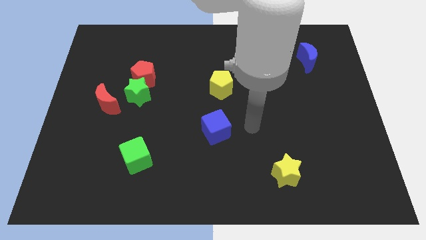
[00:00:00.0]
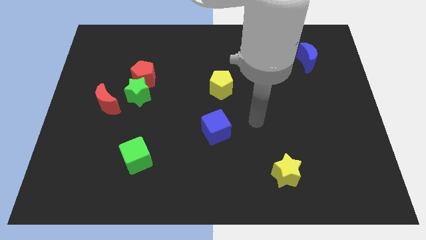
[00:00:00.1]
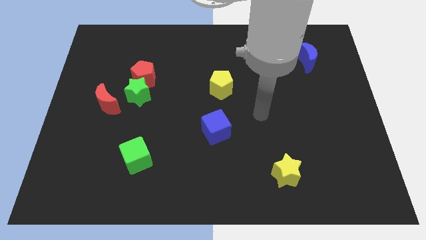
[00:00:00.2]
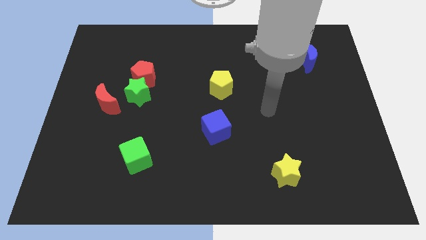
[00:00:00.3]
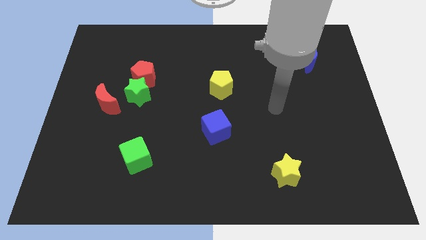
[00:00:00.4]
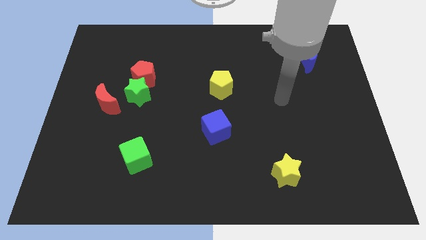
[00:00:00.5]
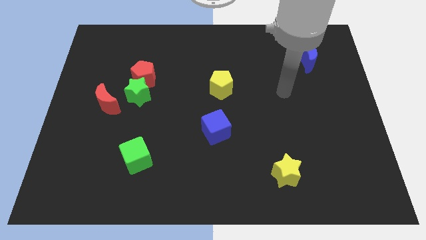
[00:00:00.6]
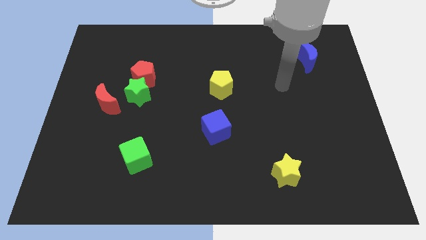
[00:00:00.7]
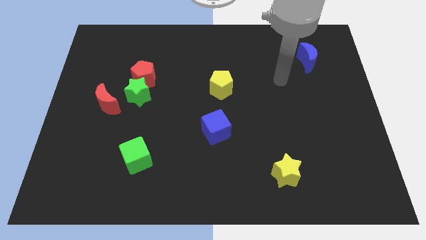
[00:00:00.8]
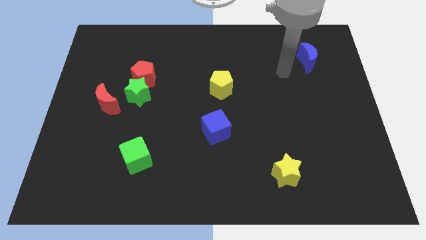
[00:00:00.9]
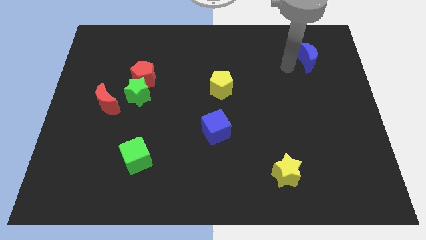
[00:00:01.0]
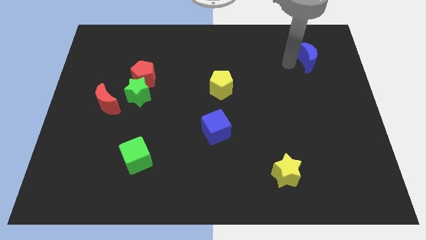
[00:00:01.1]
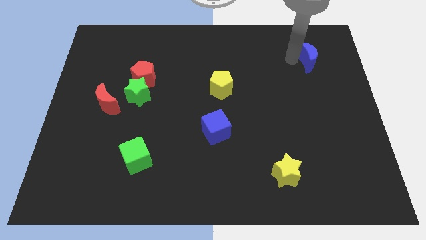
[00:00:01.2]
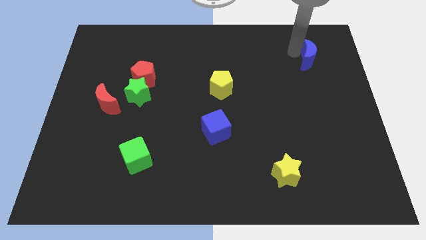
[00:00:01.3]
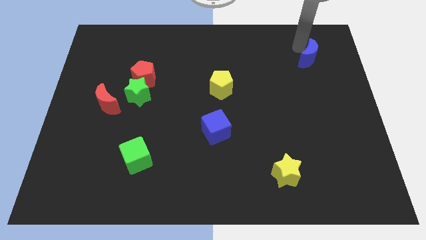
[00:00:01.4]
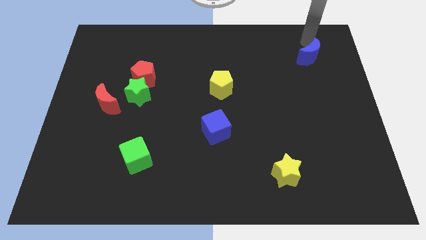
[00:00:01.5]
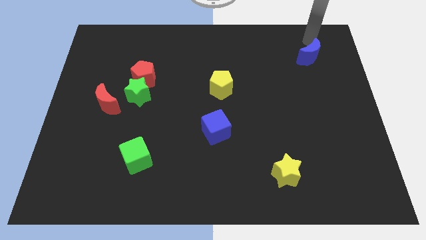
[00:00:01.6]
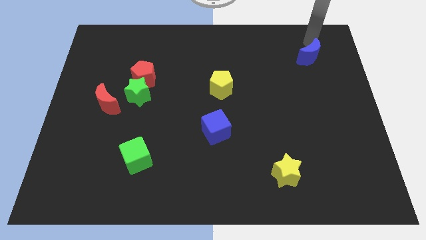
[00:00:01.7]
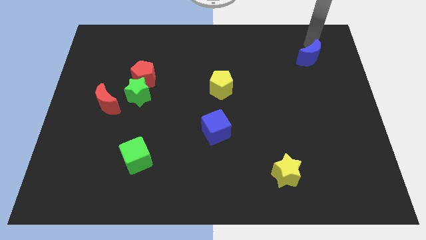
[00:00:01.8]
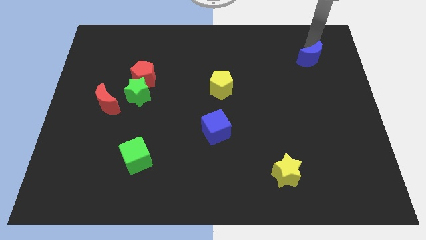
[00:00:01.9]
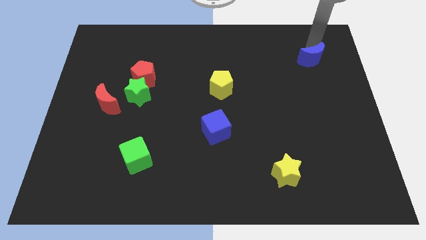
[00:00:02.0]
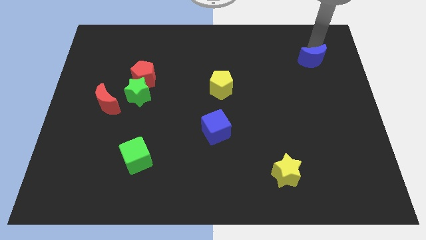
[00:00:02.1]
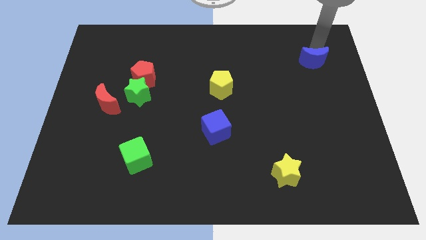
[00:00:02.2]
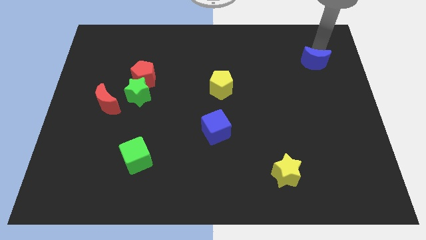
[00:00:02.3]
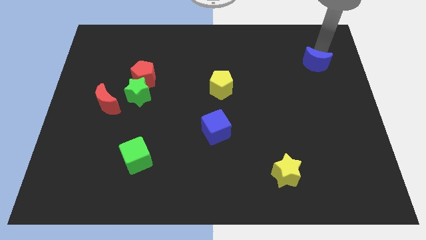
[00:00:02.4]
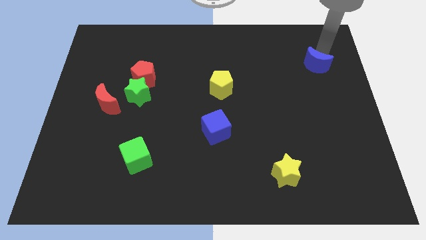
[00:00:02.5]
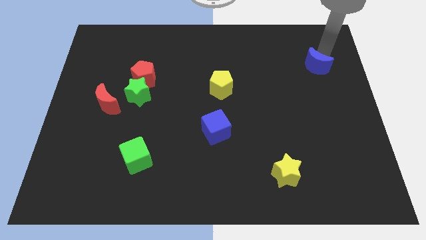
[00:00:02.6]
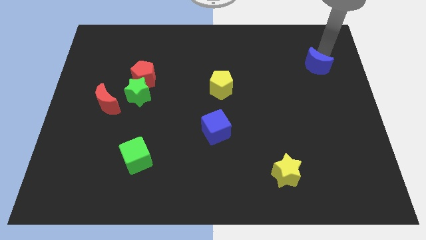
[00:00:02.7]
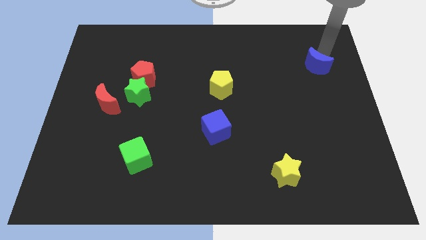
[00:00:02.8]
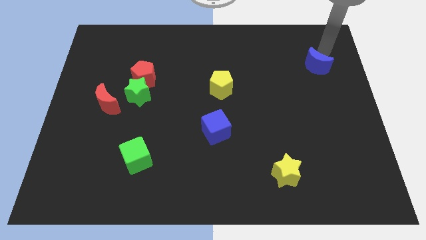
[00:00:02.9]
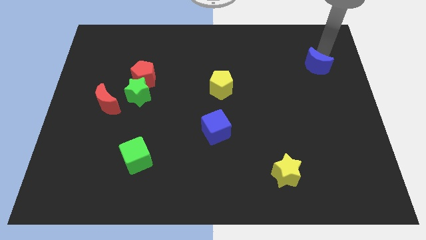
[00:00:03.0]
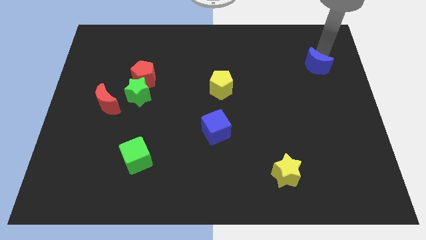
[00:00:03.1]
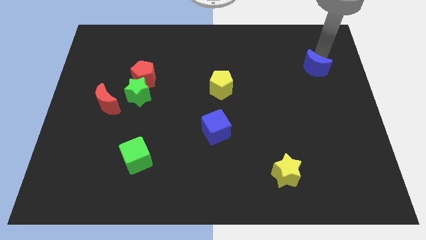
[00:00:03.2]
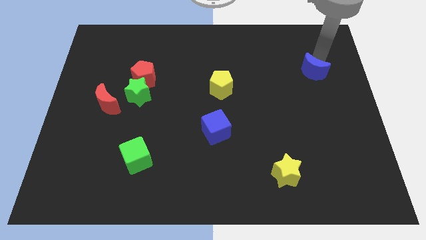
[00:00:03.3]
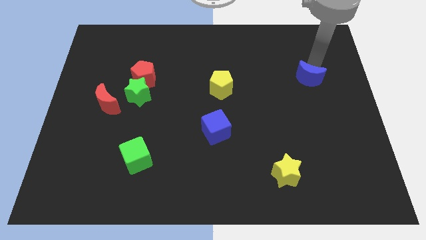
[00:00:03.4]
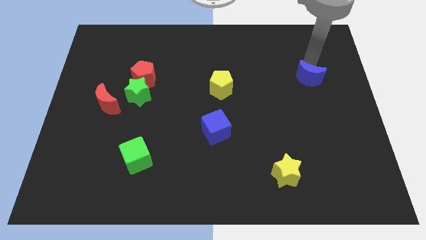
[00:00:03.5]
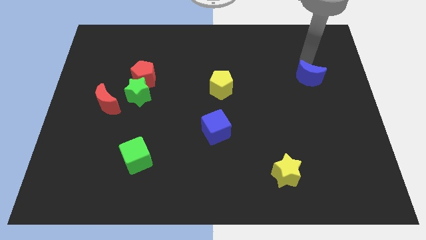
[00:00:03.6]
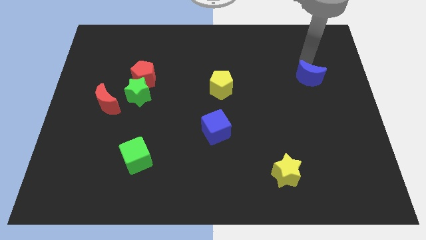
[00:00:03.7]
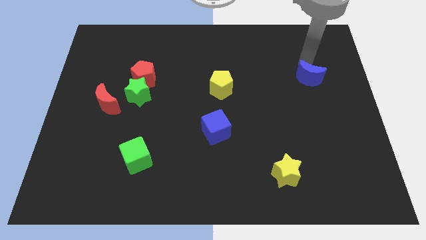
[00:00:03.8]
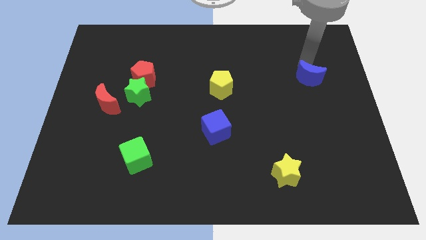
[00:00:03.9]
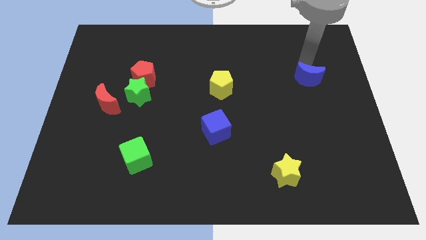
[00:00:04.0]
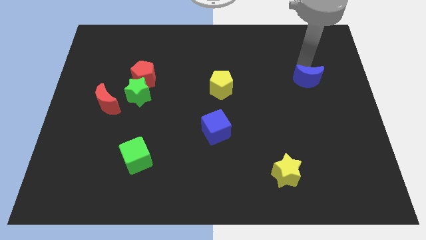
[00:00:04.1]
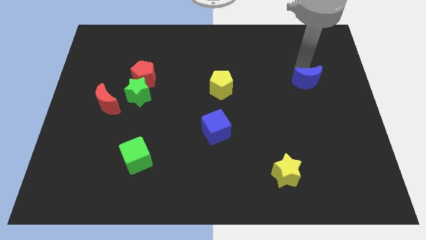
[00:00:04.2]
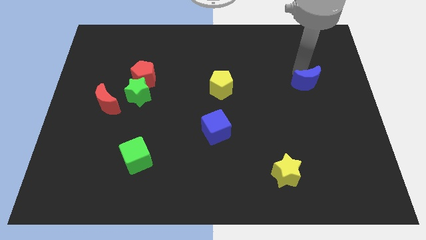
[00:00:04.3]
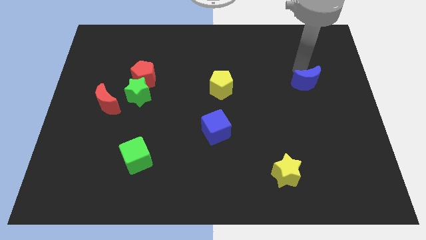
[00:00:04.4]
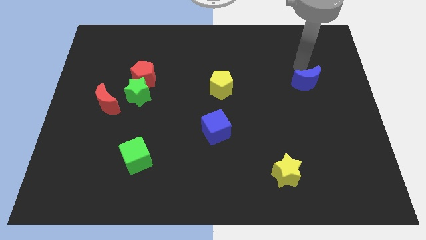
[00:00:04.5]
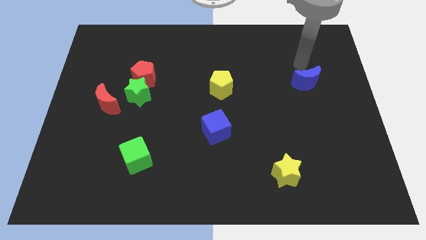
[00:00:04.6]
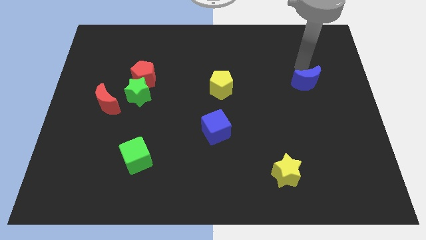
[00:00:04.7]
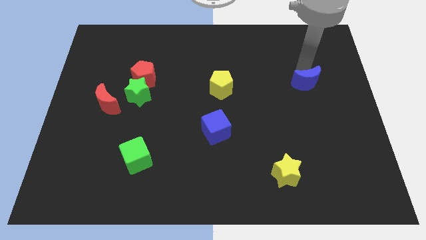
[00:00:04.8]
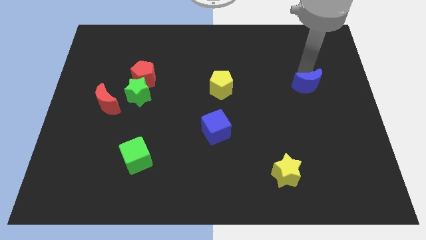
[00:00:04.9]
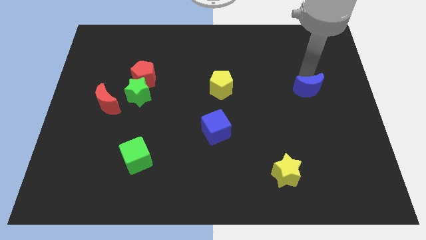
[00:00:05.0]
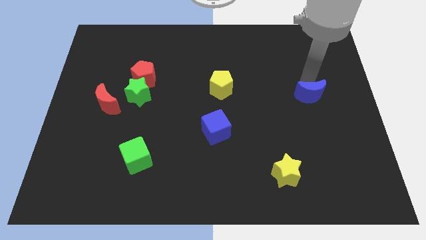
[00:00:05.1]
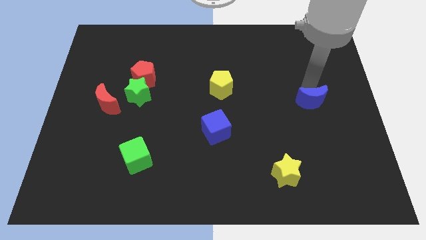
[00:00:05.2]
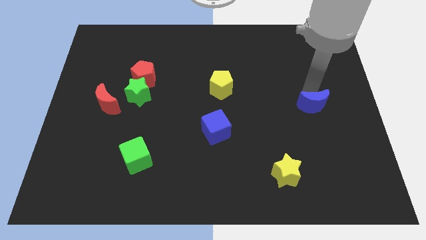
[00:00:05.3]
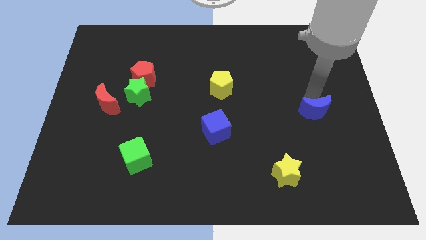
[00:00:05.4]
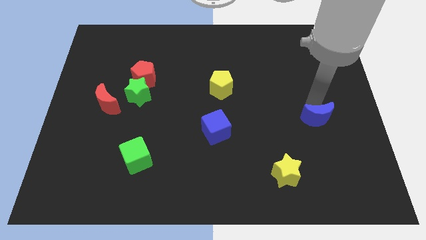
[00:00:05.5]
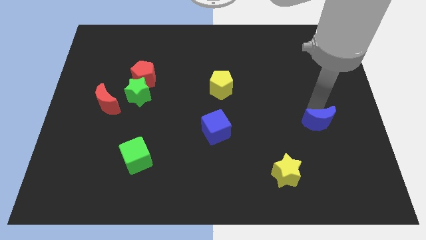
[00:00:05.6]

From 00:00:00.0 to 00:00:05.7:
move the blue moon downwards

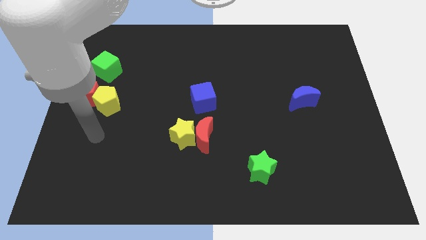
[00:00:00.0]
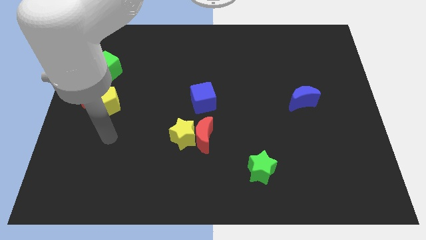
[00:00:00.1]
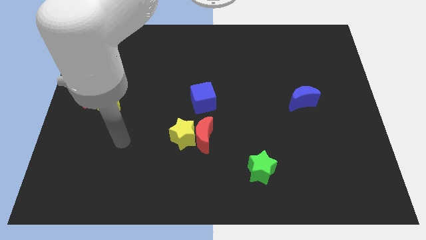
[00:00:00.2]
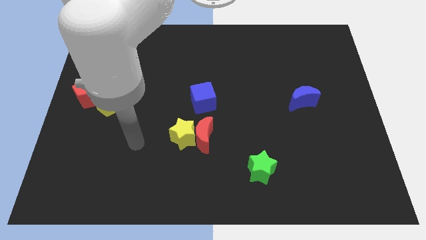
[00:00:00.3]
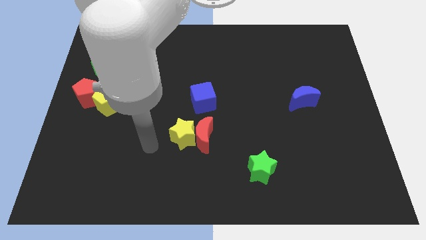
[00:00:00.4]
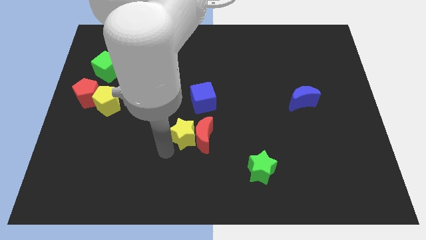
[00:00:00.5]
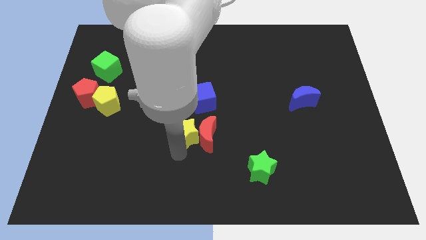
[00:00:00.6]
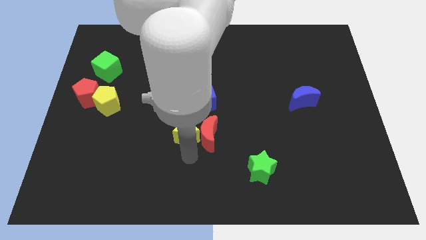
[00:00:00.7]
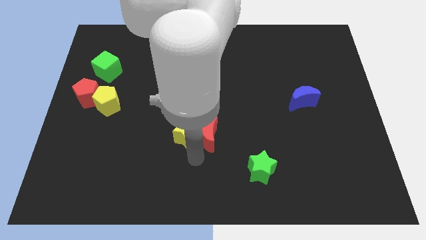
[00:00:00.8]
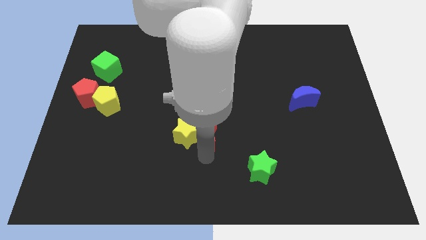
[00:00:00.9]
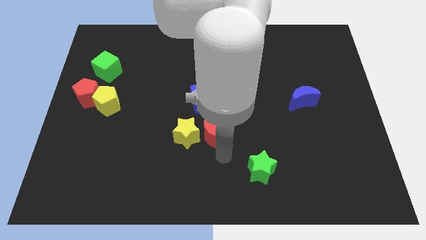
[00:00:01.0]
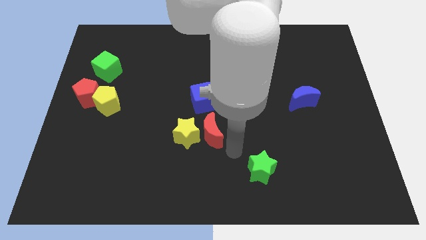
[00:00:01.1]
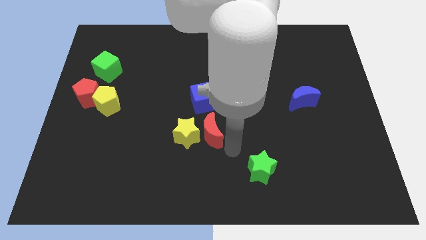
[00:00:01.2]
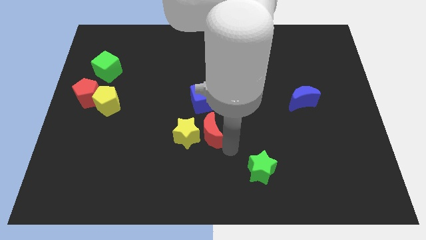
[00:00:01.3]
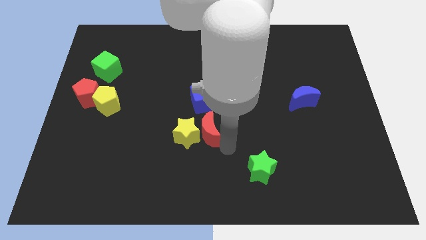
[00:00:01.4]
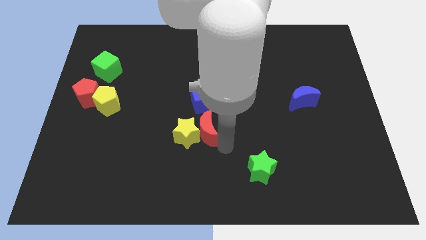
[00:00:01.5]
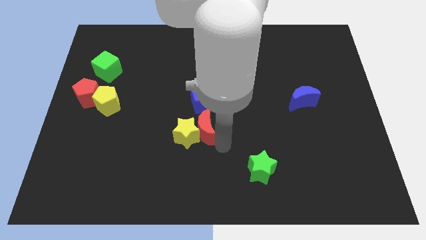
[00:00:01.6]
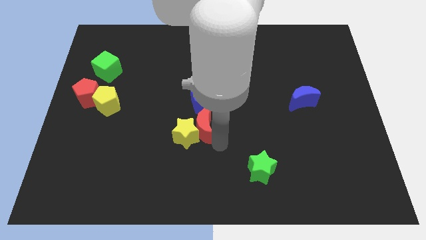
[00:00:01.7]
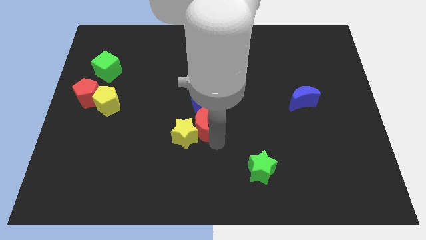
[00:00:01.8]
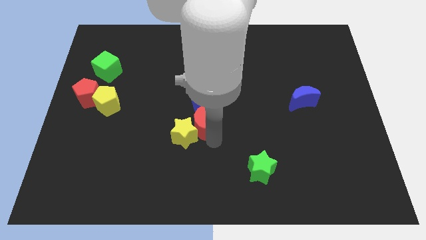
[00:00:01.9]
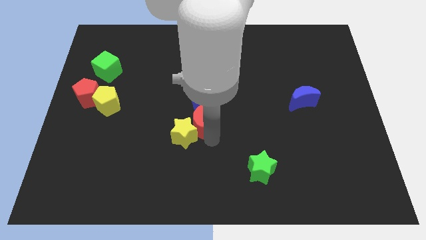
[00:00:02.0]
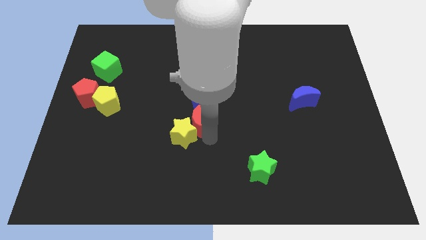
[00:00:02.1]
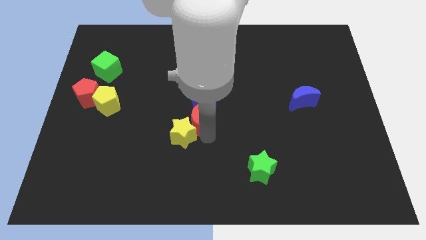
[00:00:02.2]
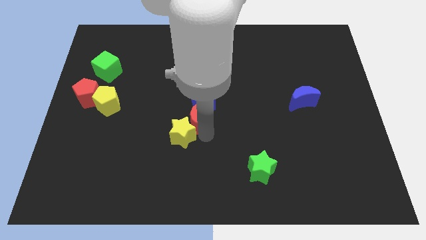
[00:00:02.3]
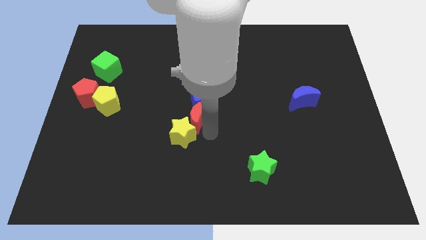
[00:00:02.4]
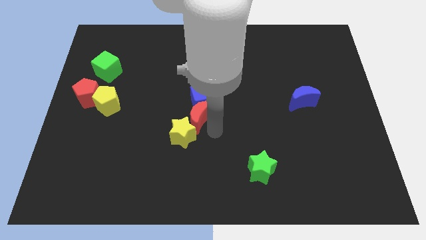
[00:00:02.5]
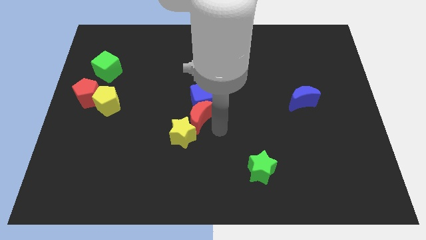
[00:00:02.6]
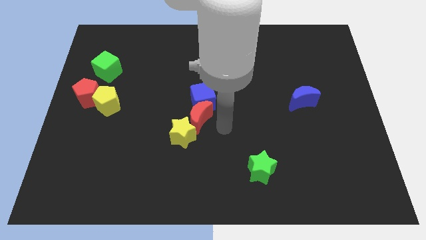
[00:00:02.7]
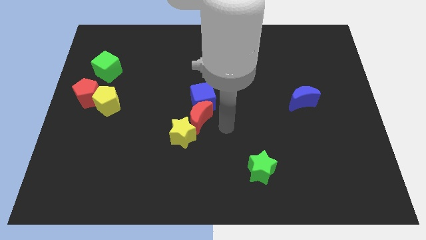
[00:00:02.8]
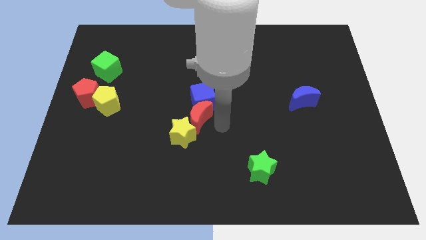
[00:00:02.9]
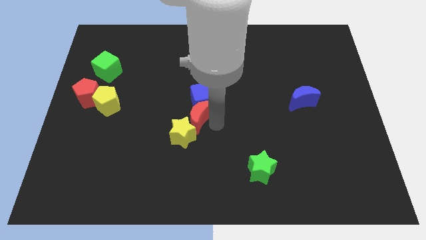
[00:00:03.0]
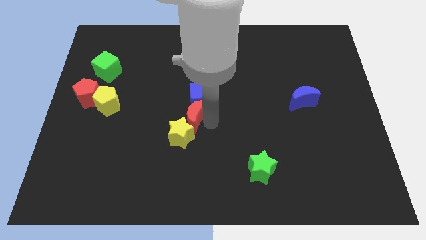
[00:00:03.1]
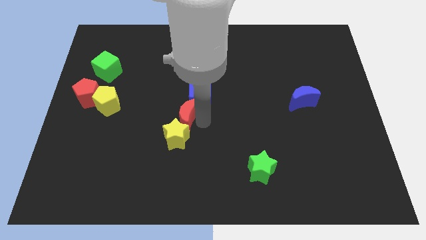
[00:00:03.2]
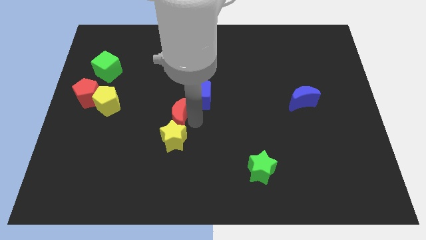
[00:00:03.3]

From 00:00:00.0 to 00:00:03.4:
push the red moon diagonally up and left slightly
